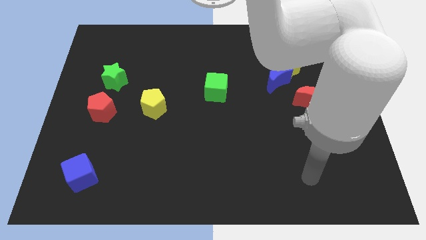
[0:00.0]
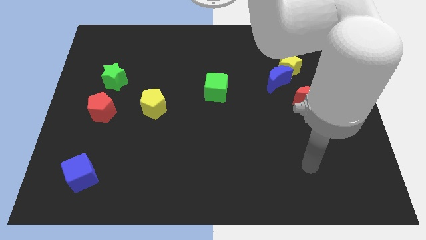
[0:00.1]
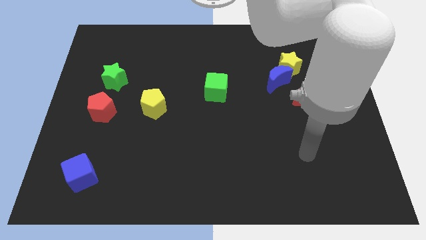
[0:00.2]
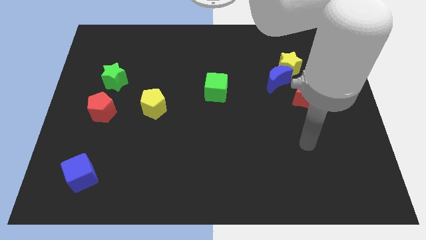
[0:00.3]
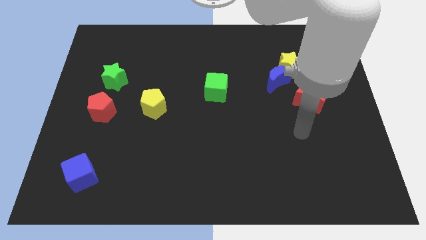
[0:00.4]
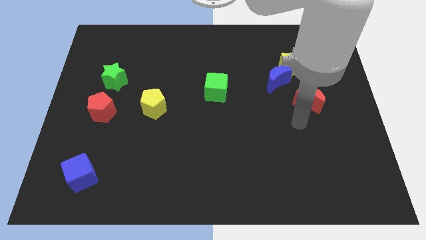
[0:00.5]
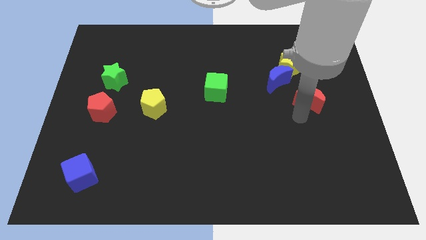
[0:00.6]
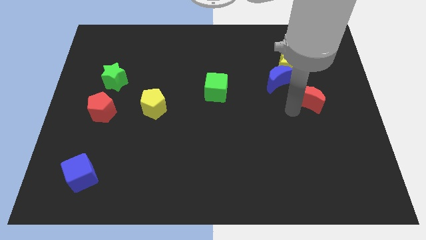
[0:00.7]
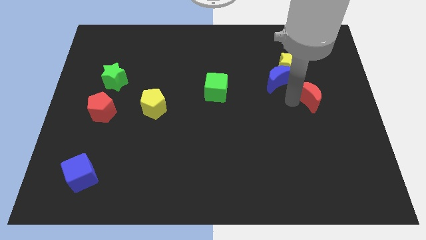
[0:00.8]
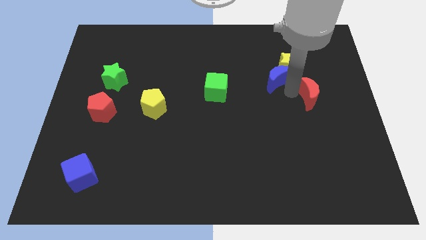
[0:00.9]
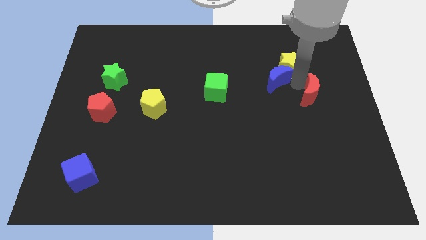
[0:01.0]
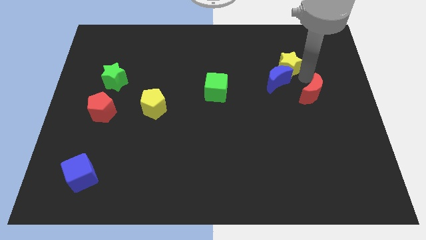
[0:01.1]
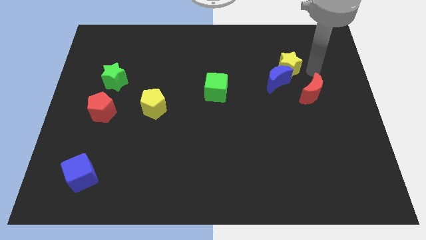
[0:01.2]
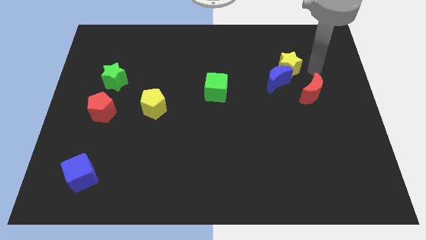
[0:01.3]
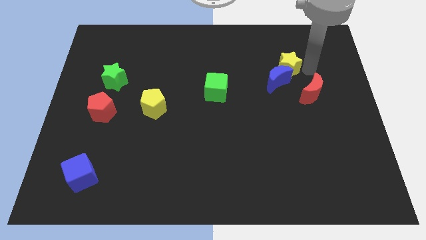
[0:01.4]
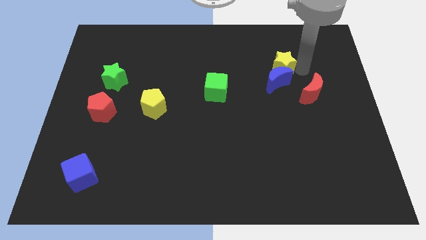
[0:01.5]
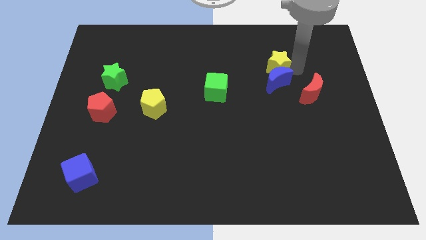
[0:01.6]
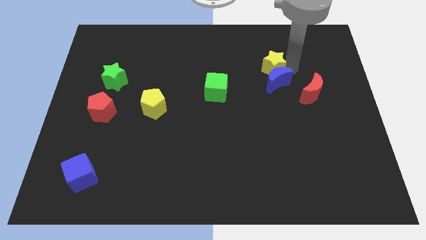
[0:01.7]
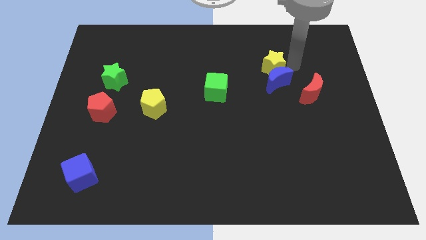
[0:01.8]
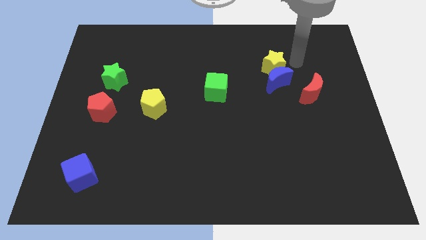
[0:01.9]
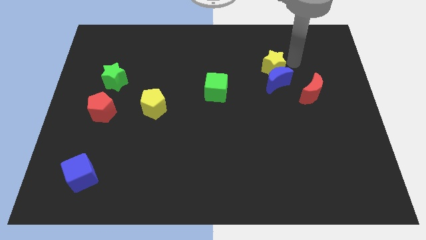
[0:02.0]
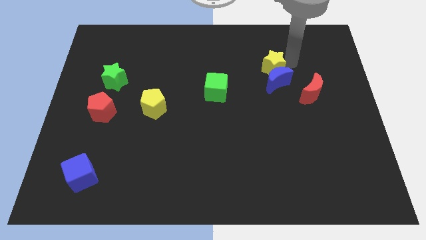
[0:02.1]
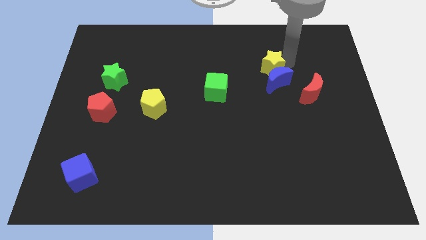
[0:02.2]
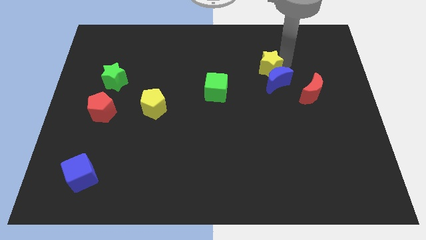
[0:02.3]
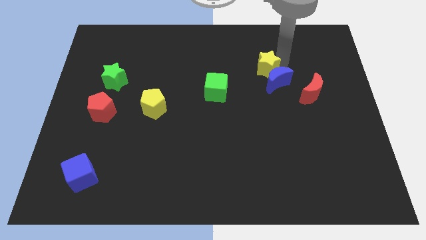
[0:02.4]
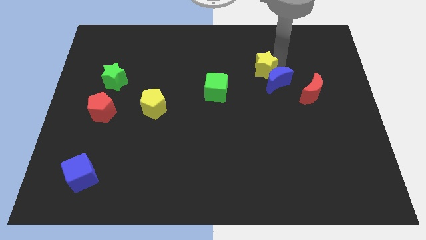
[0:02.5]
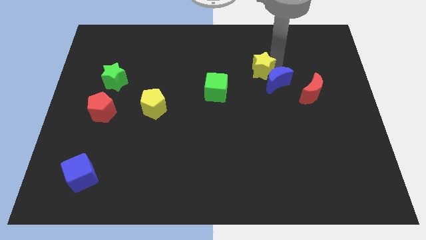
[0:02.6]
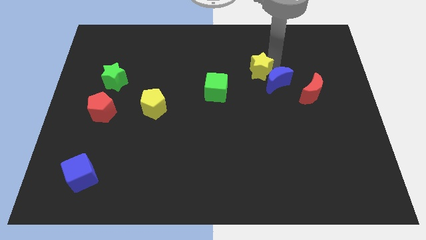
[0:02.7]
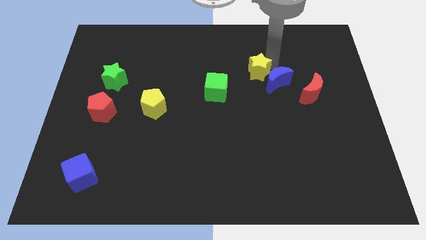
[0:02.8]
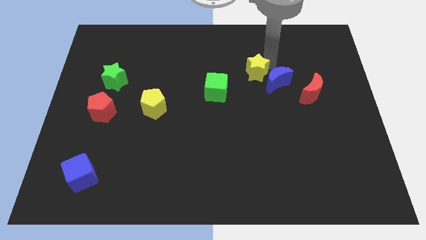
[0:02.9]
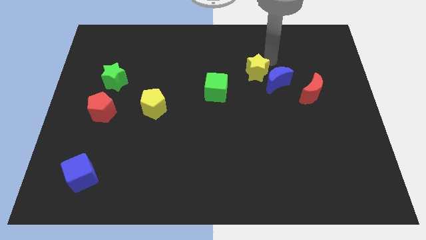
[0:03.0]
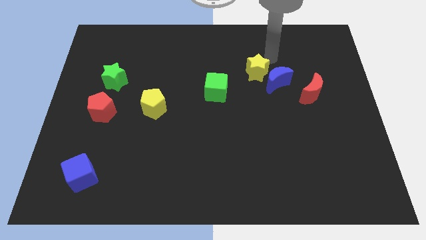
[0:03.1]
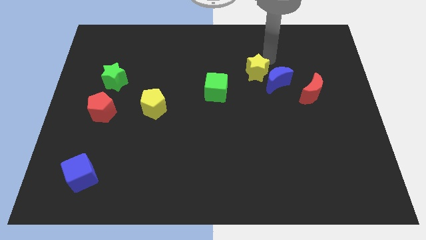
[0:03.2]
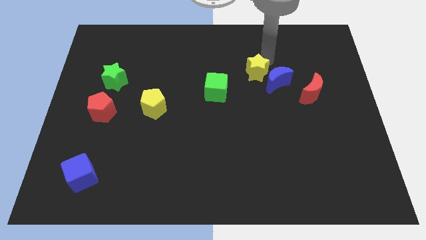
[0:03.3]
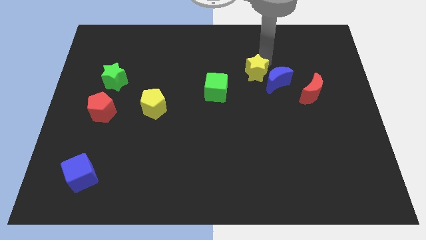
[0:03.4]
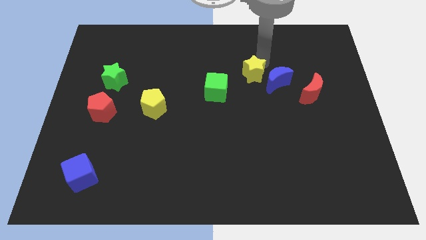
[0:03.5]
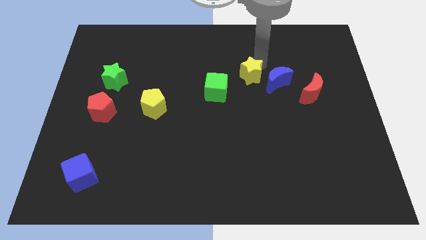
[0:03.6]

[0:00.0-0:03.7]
slightly move the yellow star down and left

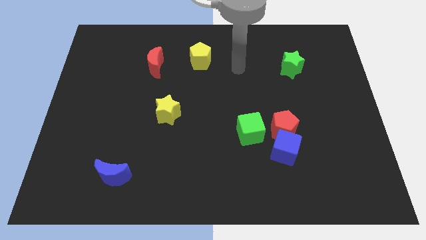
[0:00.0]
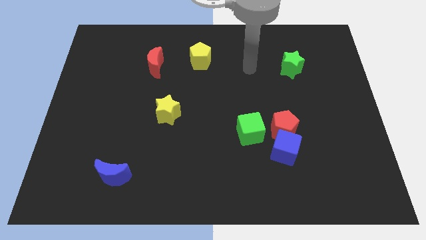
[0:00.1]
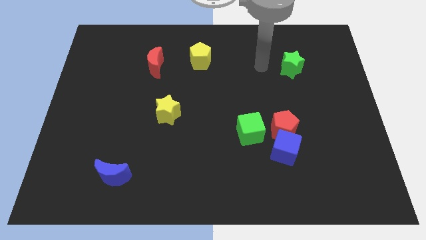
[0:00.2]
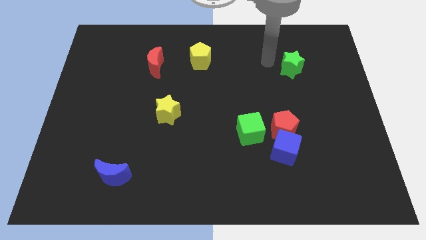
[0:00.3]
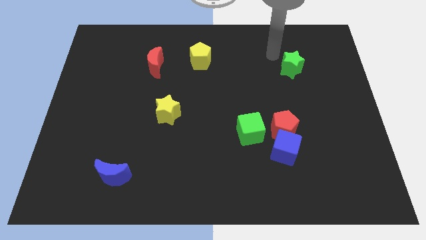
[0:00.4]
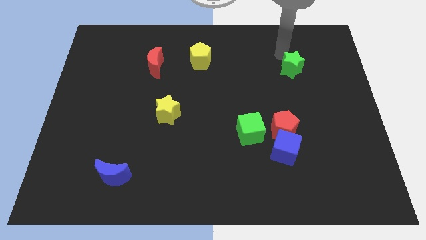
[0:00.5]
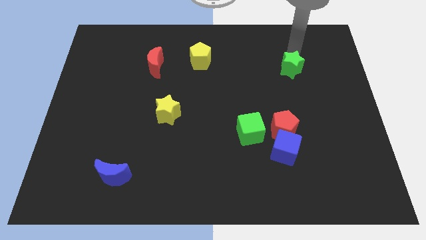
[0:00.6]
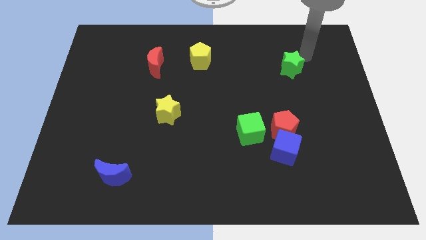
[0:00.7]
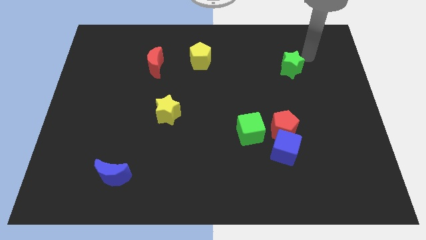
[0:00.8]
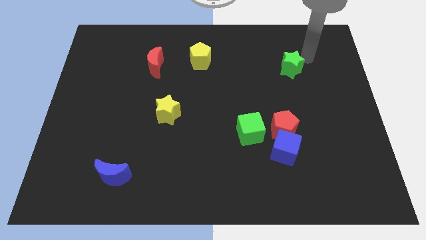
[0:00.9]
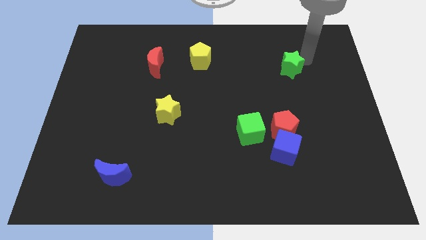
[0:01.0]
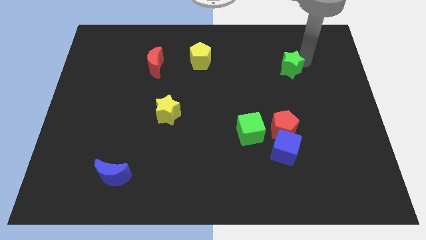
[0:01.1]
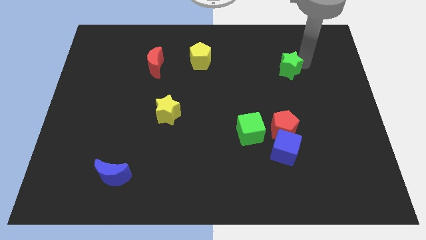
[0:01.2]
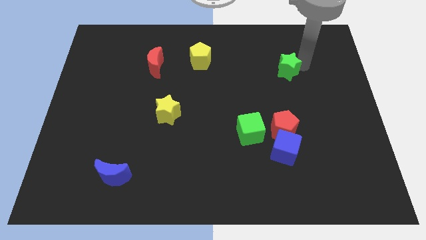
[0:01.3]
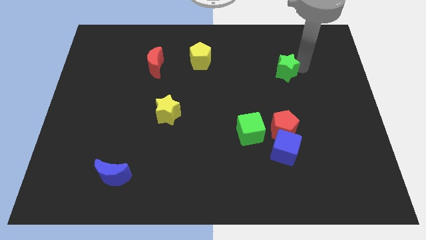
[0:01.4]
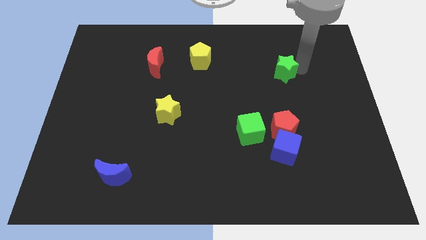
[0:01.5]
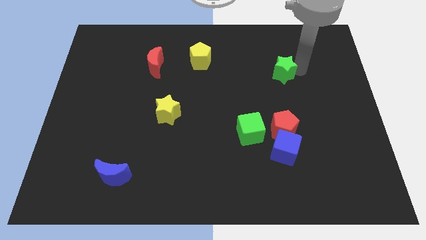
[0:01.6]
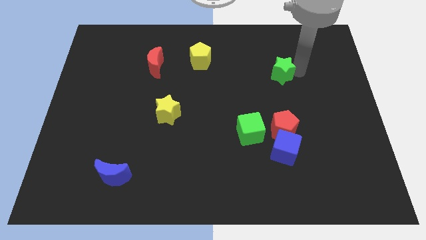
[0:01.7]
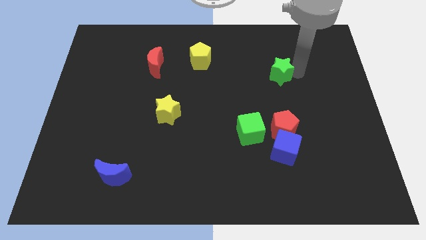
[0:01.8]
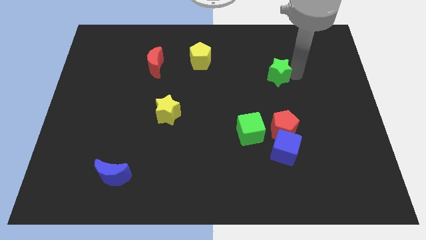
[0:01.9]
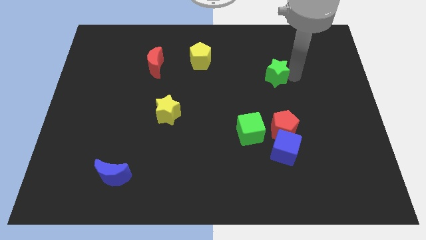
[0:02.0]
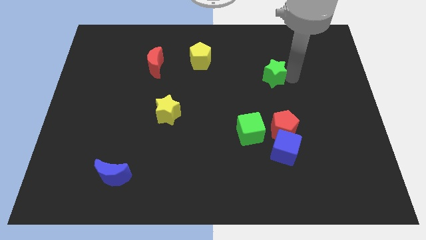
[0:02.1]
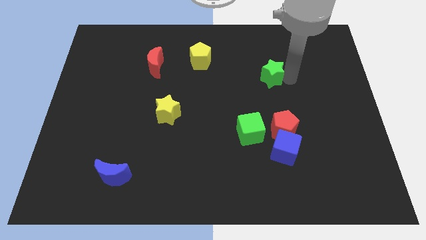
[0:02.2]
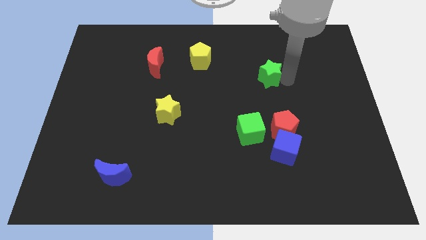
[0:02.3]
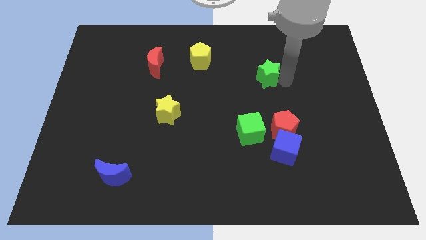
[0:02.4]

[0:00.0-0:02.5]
slightly move the green star down and then to the left

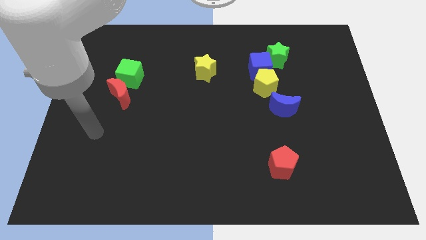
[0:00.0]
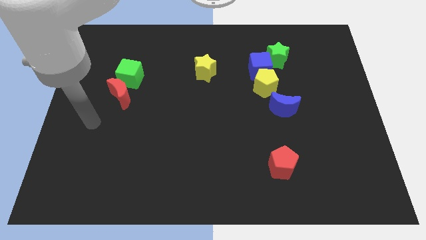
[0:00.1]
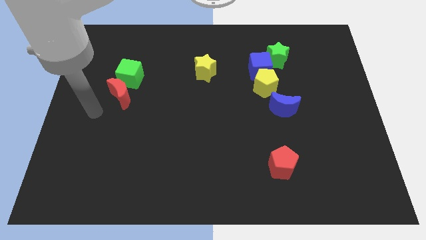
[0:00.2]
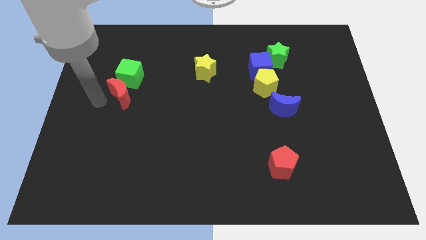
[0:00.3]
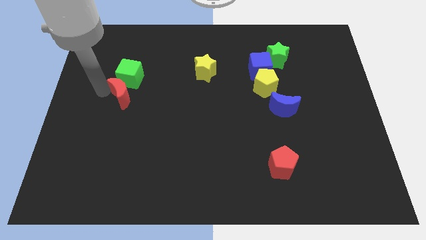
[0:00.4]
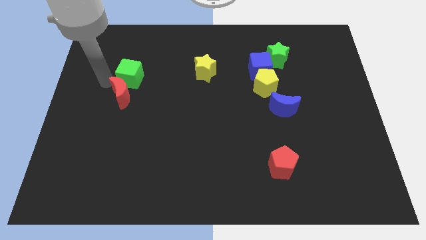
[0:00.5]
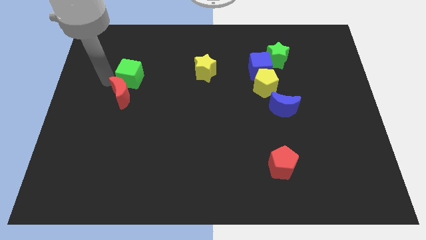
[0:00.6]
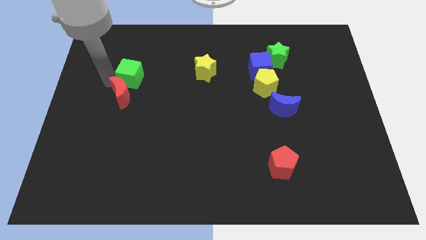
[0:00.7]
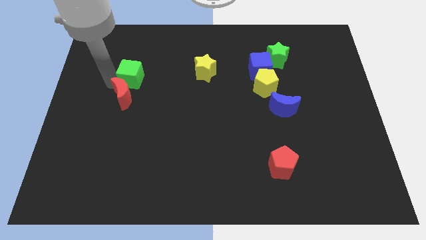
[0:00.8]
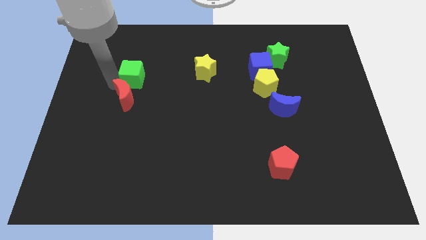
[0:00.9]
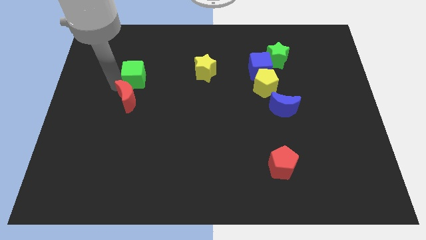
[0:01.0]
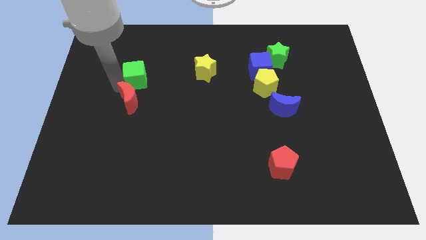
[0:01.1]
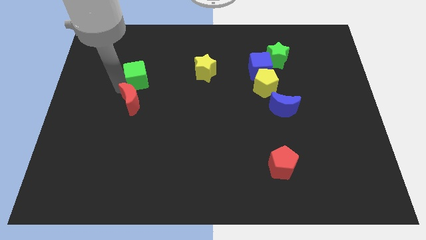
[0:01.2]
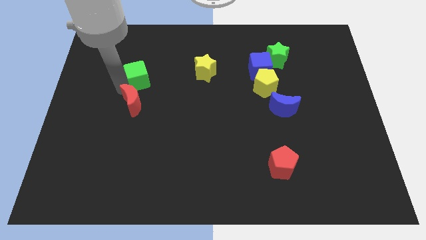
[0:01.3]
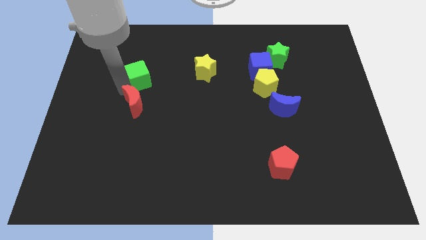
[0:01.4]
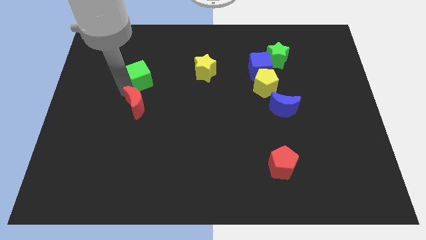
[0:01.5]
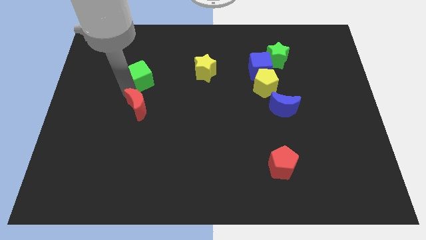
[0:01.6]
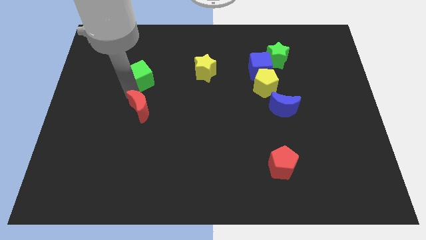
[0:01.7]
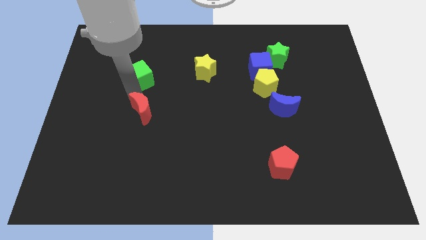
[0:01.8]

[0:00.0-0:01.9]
slightly slide the red moon down and to the right

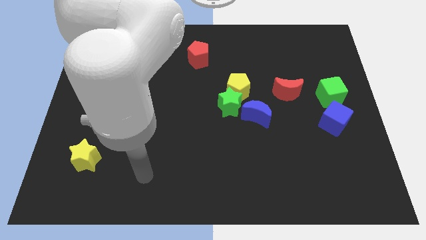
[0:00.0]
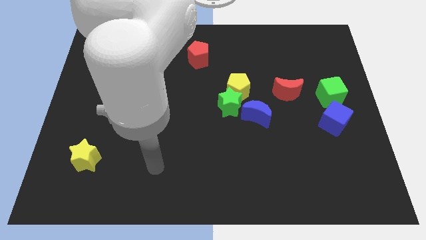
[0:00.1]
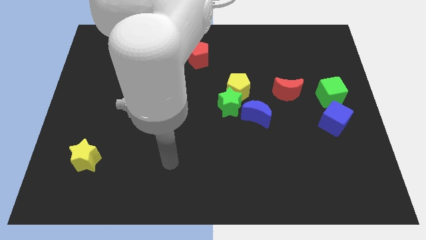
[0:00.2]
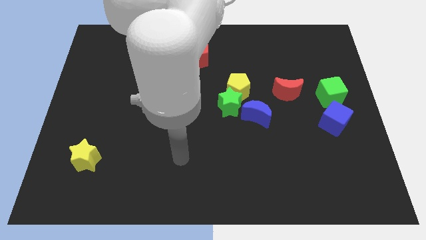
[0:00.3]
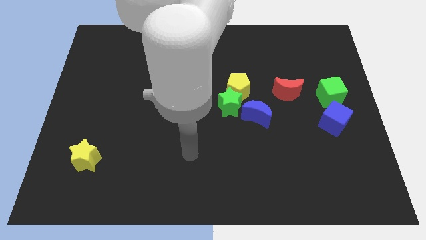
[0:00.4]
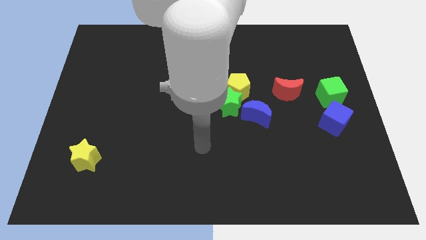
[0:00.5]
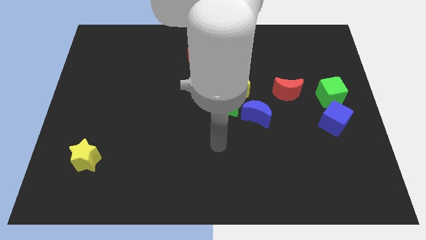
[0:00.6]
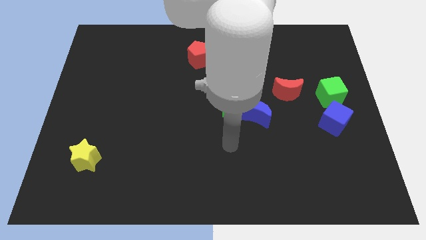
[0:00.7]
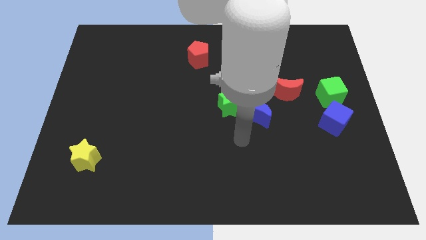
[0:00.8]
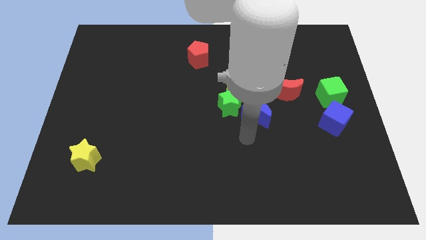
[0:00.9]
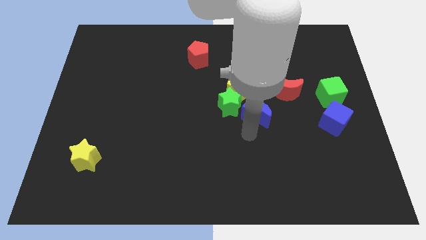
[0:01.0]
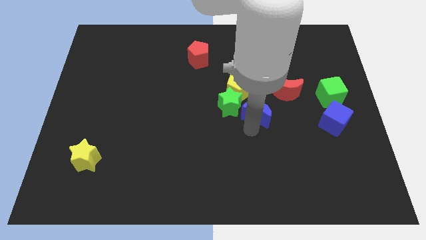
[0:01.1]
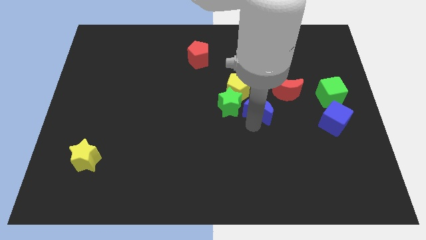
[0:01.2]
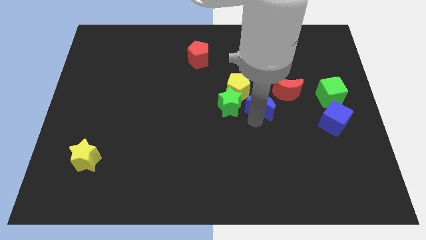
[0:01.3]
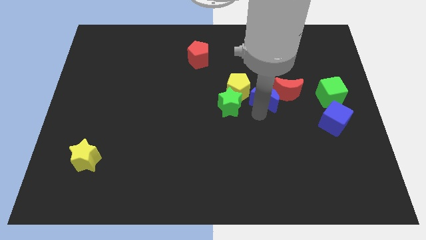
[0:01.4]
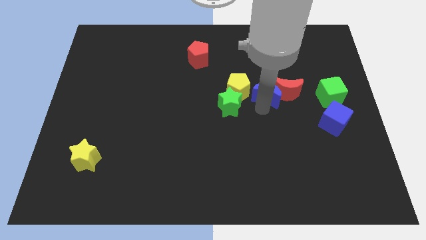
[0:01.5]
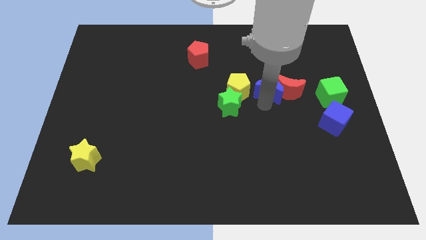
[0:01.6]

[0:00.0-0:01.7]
slide the blue moon up and to the right diagonally a little bit
